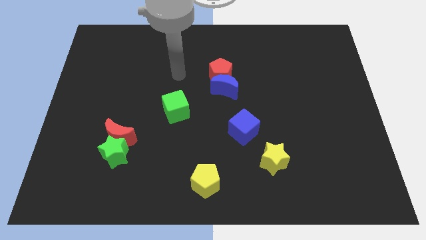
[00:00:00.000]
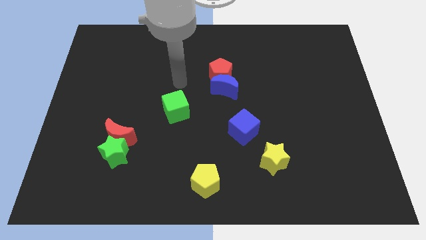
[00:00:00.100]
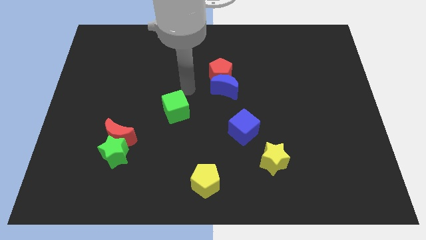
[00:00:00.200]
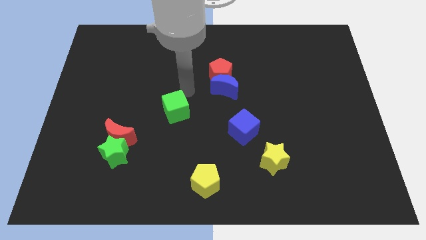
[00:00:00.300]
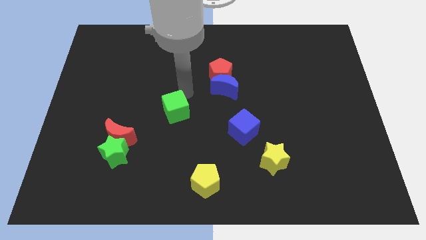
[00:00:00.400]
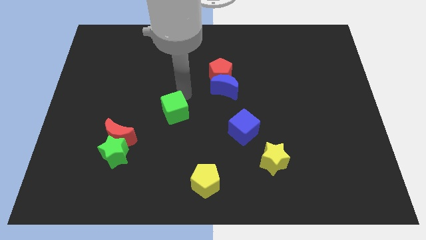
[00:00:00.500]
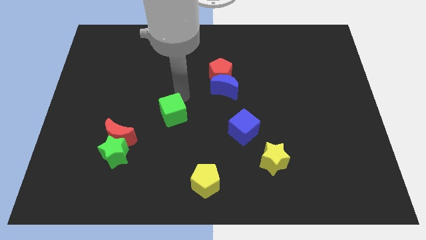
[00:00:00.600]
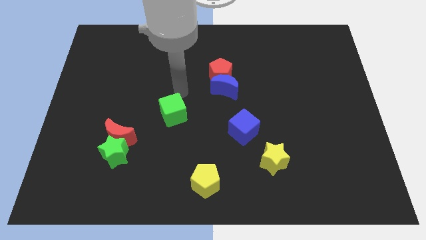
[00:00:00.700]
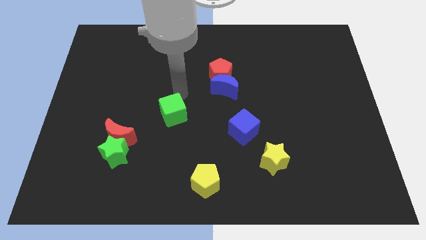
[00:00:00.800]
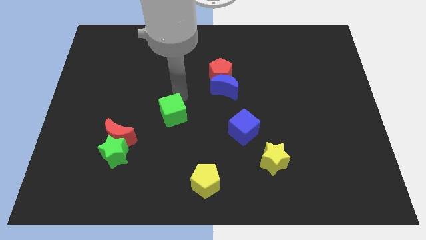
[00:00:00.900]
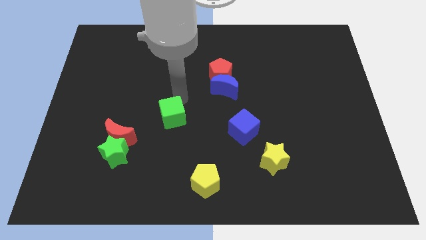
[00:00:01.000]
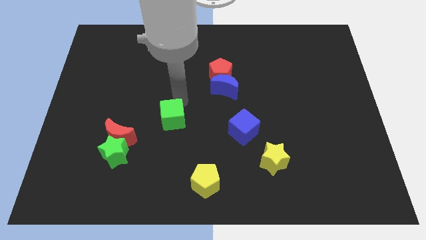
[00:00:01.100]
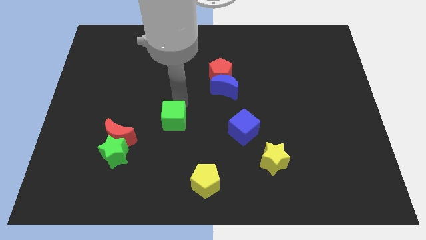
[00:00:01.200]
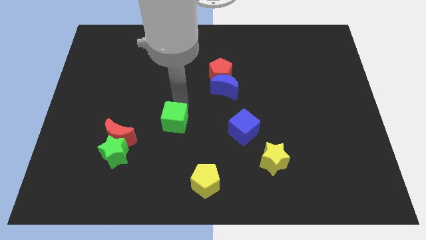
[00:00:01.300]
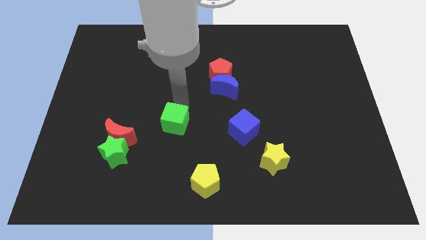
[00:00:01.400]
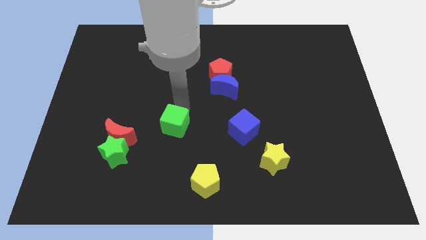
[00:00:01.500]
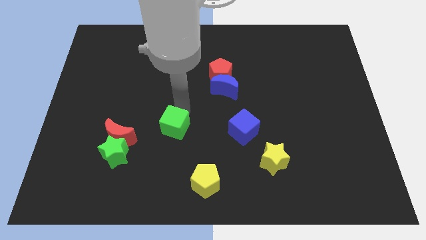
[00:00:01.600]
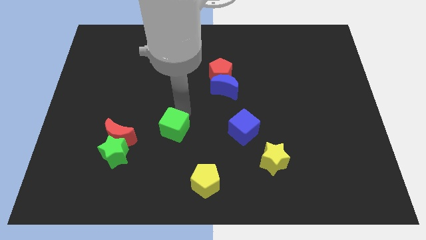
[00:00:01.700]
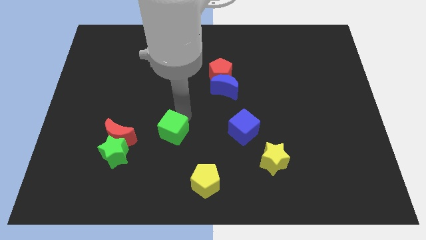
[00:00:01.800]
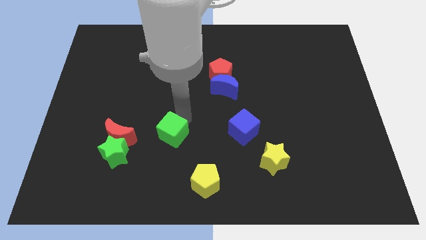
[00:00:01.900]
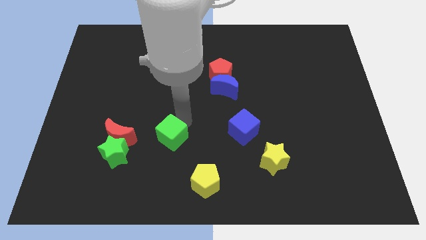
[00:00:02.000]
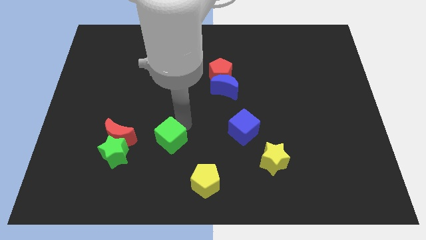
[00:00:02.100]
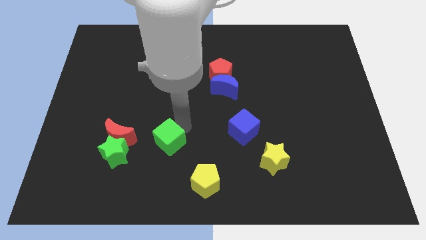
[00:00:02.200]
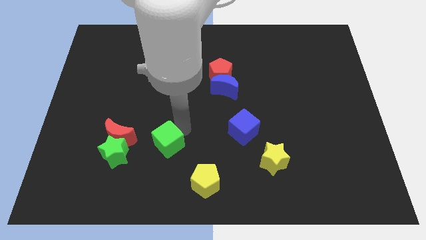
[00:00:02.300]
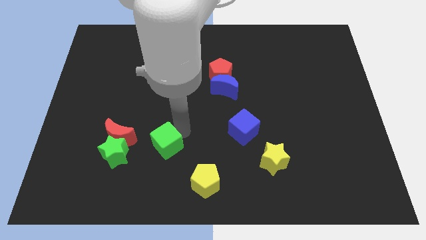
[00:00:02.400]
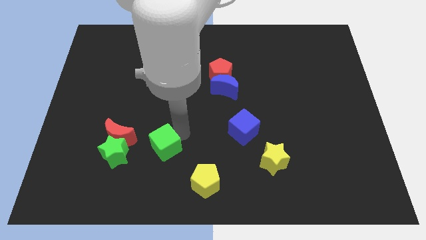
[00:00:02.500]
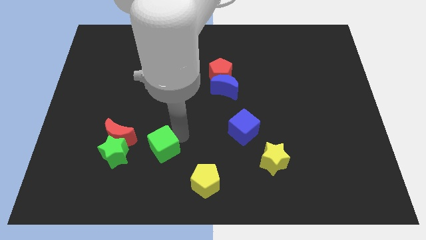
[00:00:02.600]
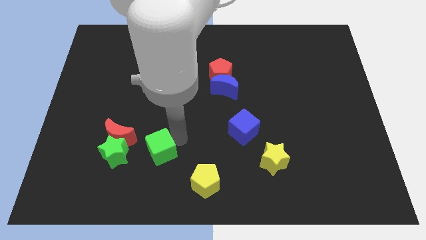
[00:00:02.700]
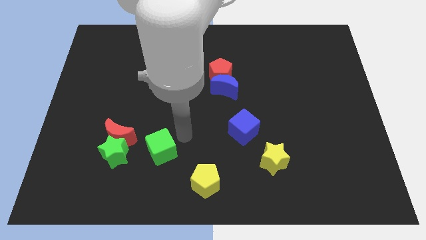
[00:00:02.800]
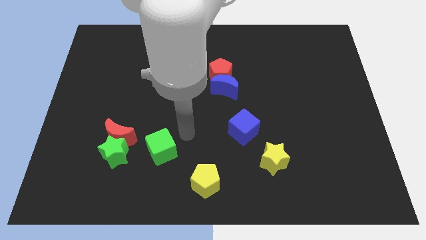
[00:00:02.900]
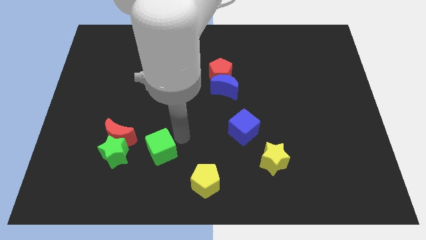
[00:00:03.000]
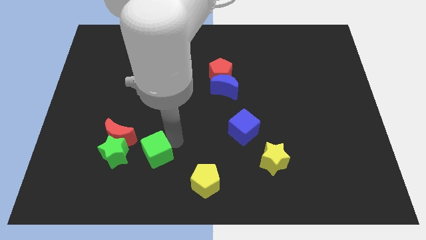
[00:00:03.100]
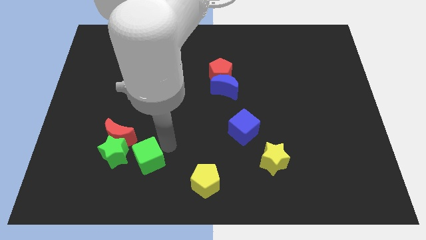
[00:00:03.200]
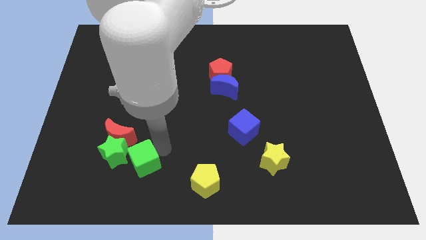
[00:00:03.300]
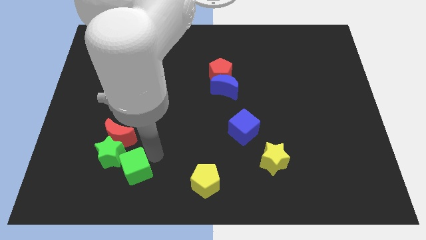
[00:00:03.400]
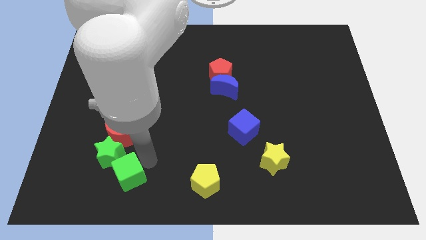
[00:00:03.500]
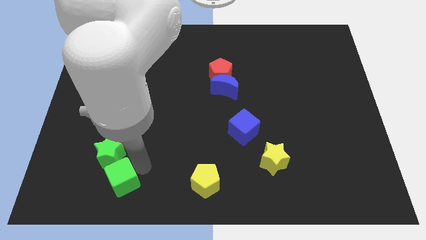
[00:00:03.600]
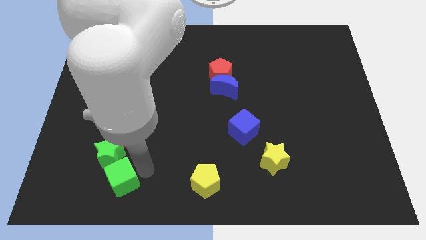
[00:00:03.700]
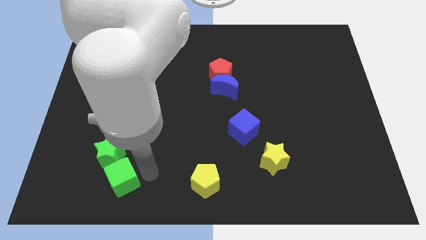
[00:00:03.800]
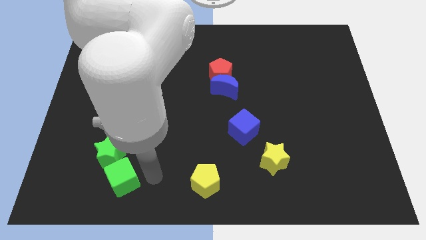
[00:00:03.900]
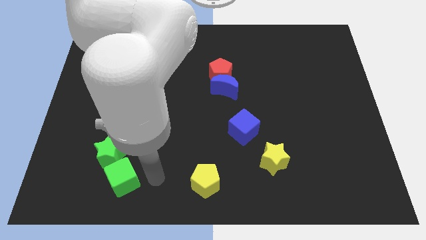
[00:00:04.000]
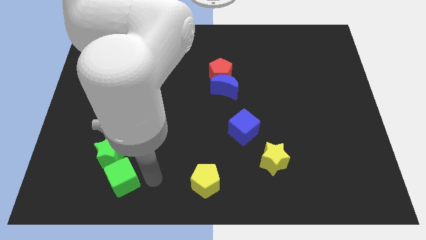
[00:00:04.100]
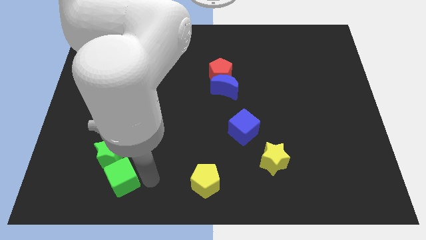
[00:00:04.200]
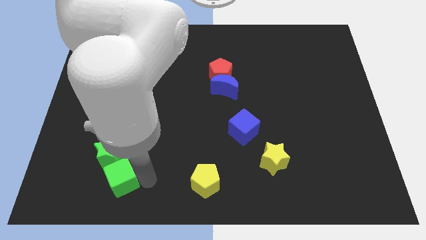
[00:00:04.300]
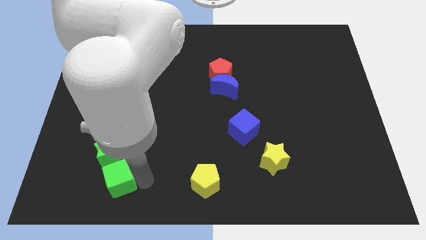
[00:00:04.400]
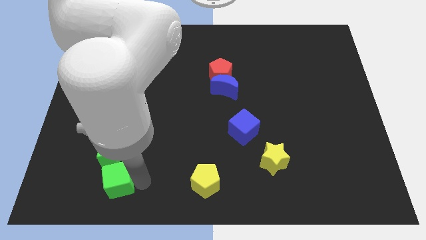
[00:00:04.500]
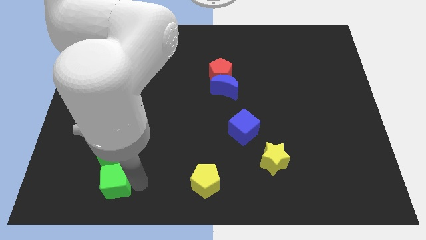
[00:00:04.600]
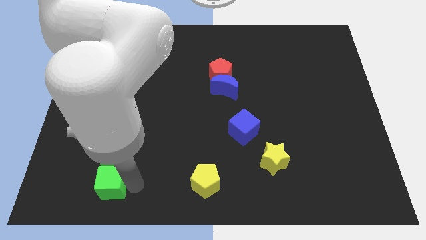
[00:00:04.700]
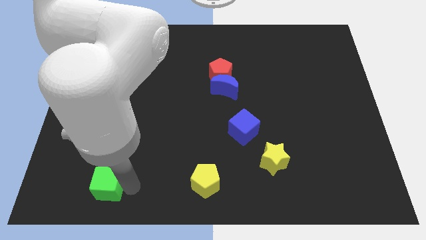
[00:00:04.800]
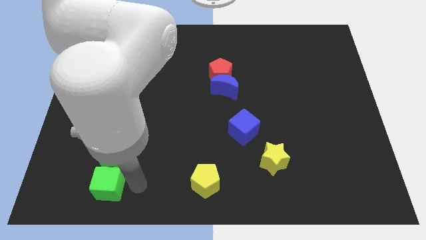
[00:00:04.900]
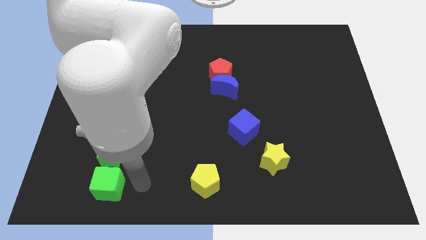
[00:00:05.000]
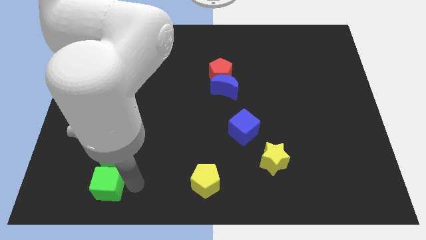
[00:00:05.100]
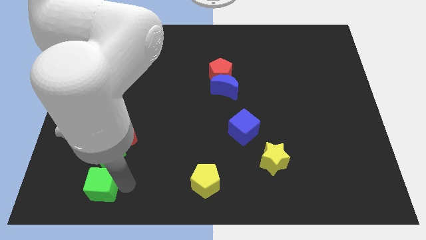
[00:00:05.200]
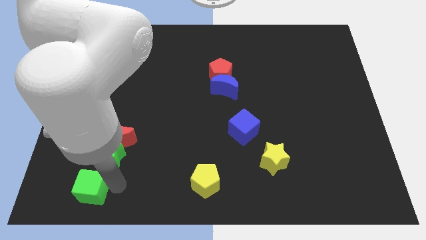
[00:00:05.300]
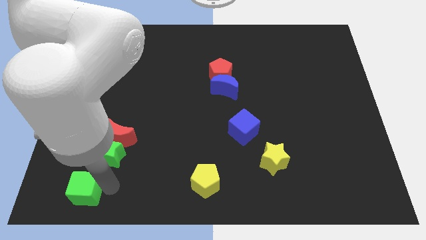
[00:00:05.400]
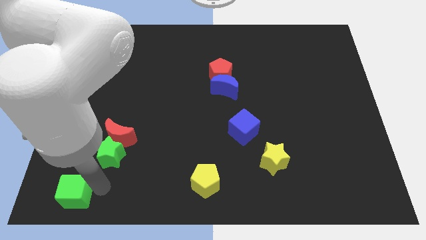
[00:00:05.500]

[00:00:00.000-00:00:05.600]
move the green cube to the bottom left corner

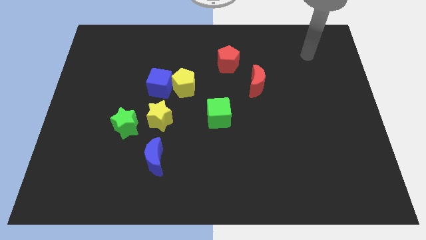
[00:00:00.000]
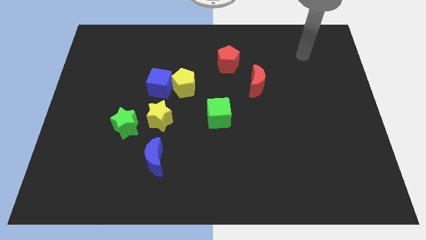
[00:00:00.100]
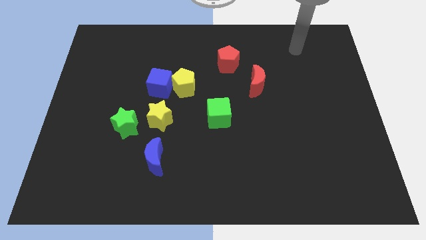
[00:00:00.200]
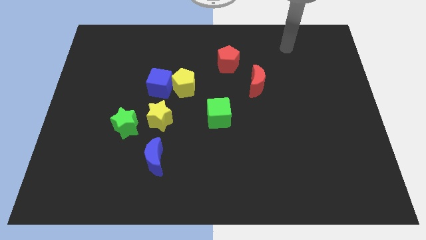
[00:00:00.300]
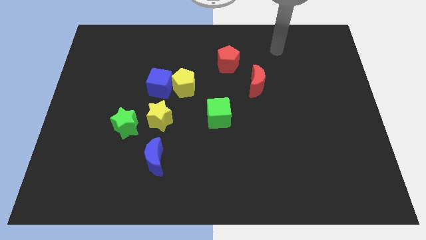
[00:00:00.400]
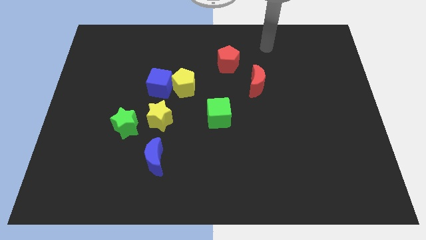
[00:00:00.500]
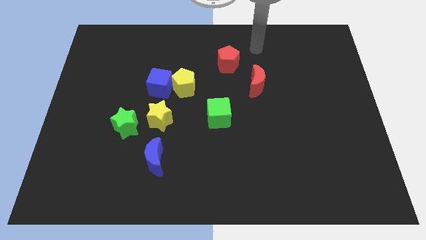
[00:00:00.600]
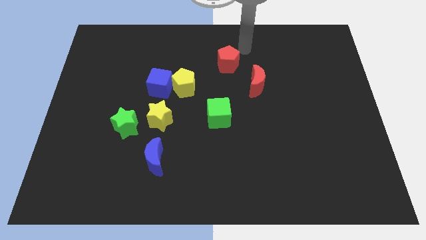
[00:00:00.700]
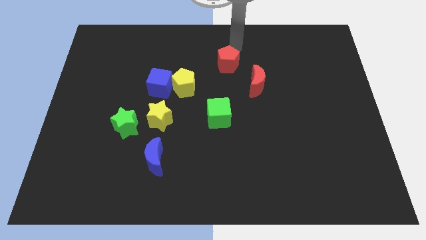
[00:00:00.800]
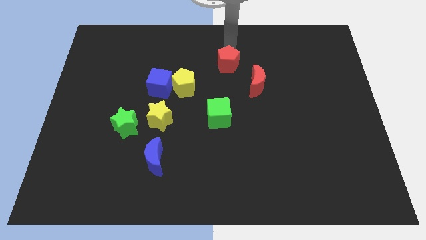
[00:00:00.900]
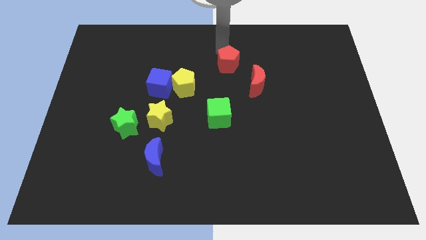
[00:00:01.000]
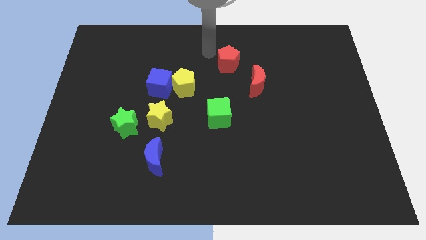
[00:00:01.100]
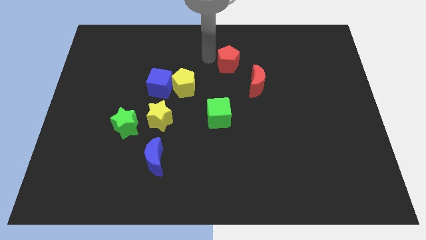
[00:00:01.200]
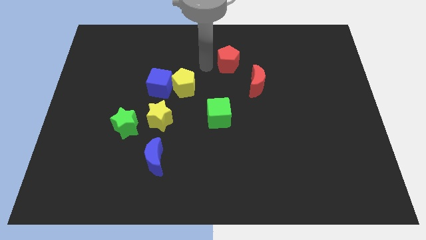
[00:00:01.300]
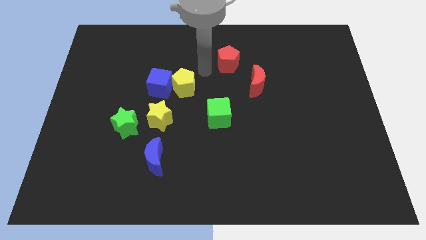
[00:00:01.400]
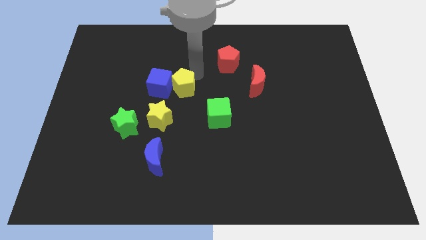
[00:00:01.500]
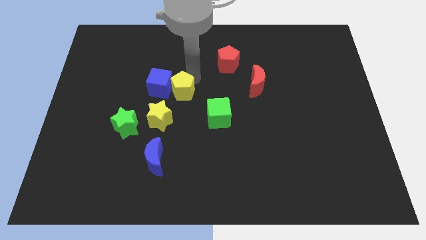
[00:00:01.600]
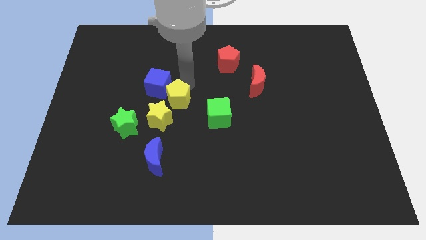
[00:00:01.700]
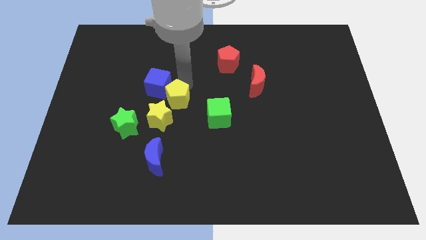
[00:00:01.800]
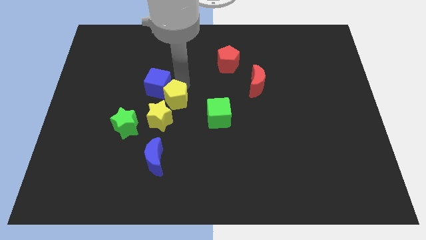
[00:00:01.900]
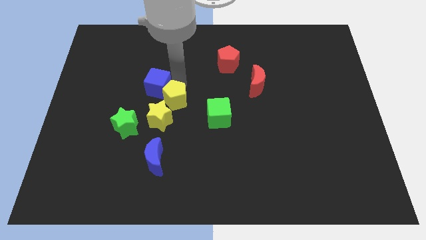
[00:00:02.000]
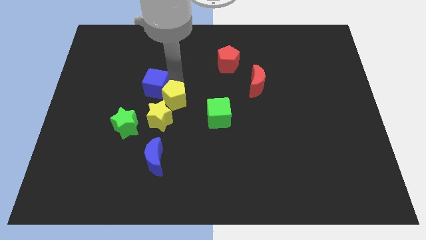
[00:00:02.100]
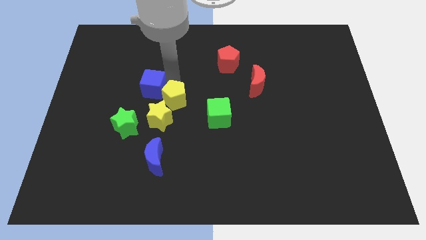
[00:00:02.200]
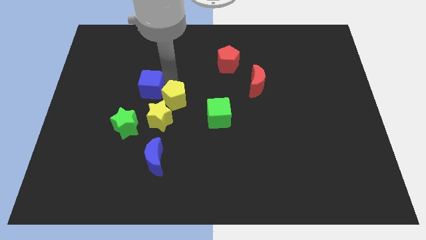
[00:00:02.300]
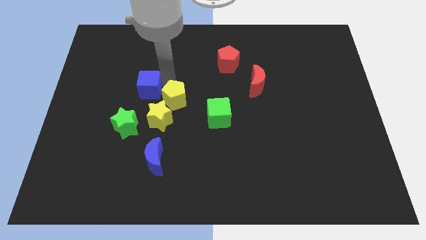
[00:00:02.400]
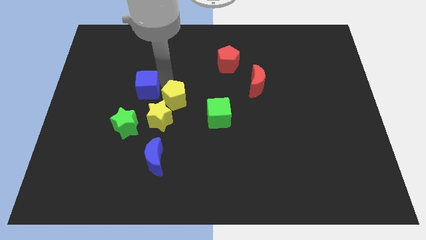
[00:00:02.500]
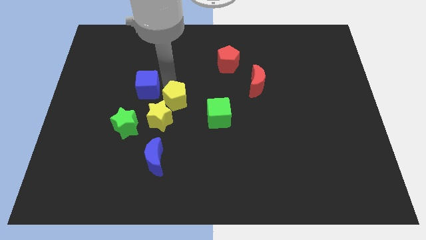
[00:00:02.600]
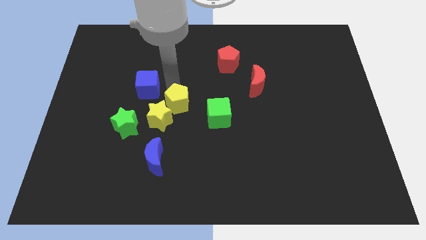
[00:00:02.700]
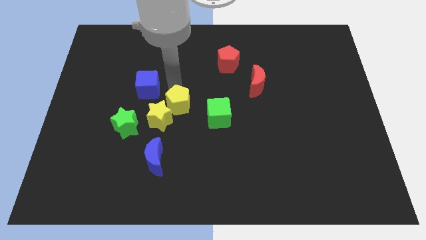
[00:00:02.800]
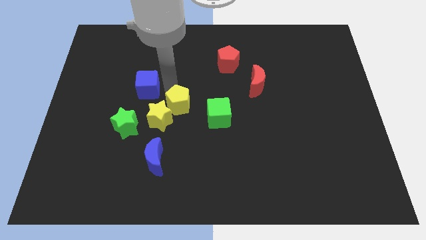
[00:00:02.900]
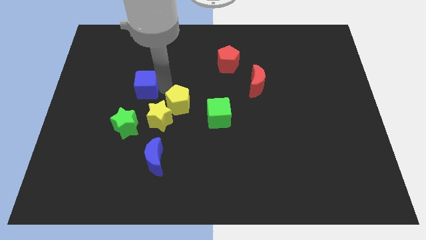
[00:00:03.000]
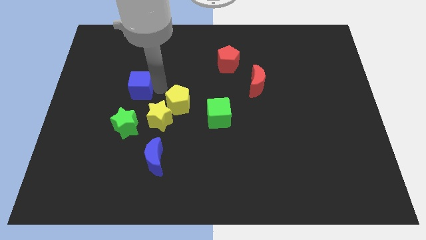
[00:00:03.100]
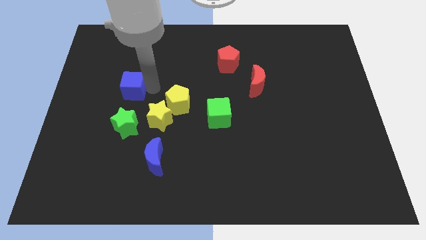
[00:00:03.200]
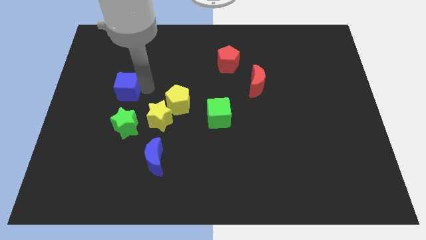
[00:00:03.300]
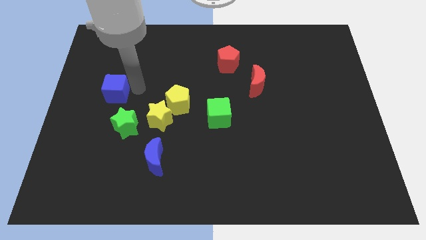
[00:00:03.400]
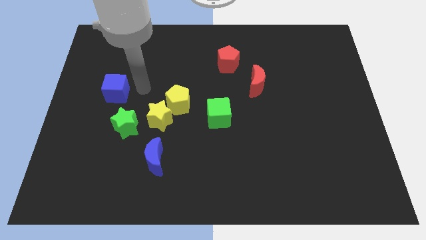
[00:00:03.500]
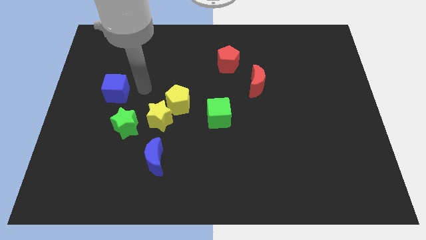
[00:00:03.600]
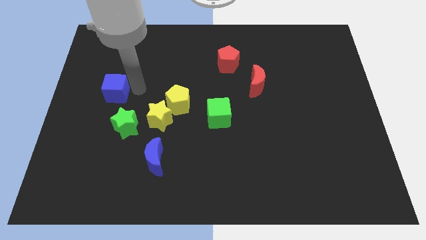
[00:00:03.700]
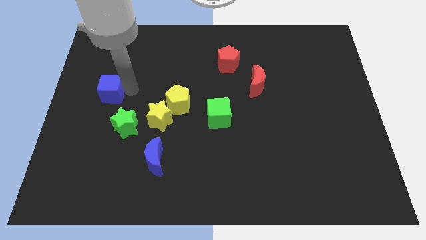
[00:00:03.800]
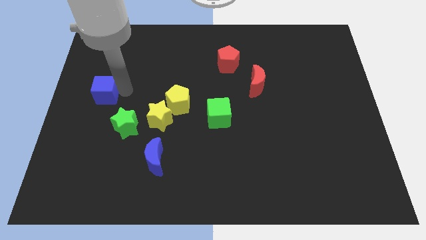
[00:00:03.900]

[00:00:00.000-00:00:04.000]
push the blue cube to the center left
